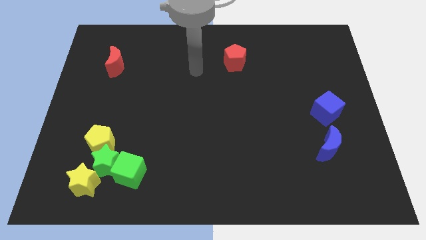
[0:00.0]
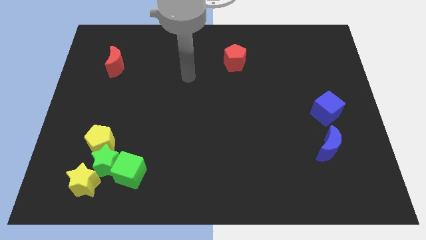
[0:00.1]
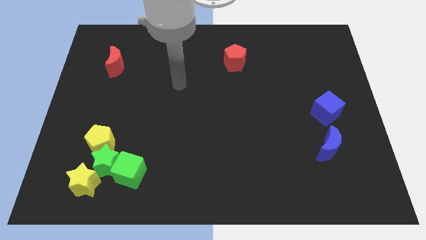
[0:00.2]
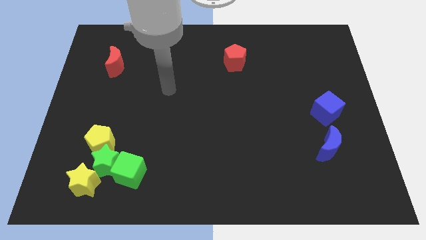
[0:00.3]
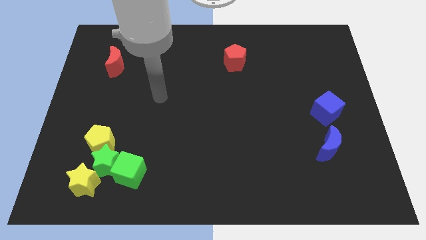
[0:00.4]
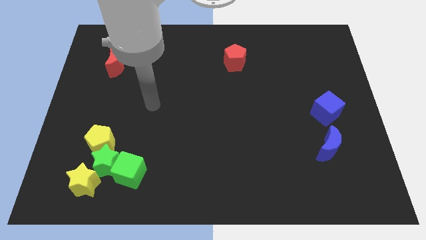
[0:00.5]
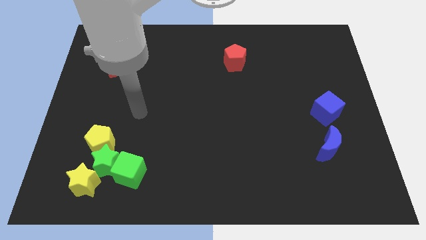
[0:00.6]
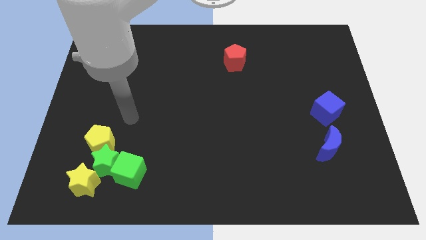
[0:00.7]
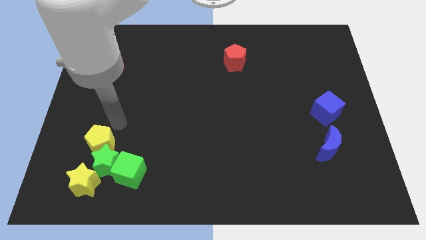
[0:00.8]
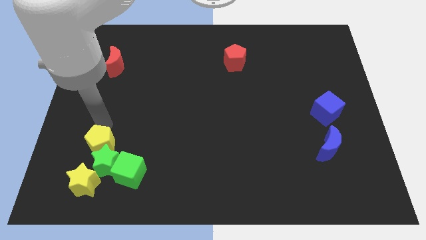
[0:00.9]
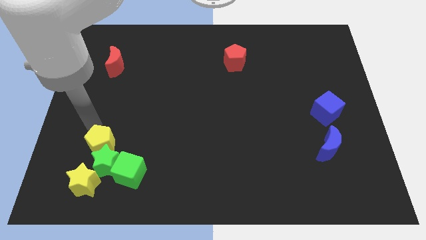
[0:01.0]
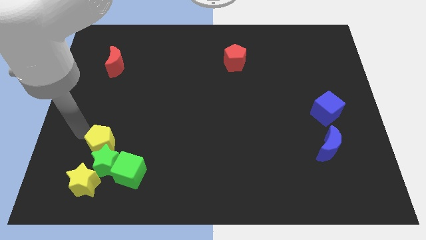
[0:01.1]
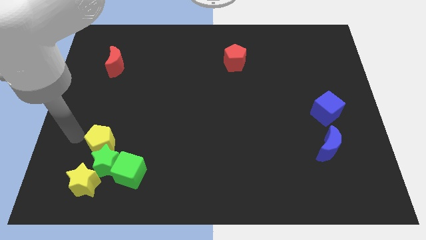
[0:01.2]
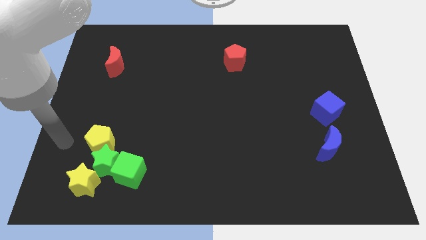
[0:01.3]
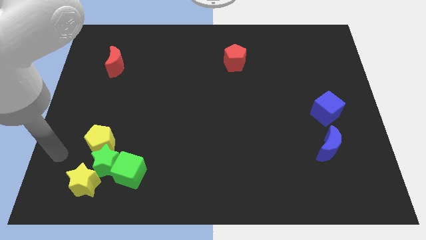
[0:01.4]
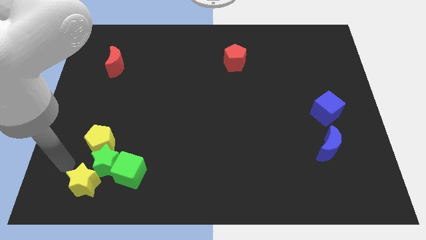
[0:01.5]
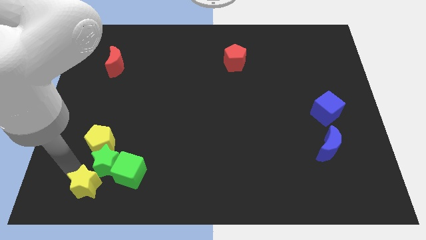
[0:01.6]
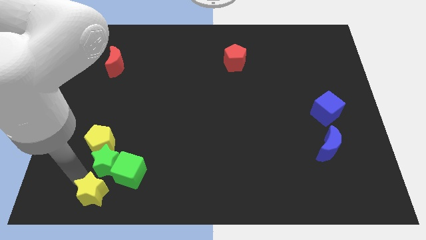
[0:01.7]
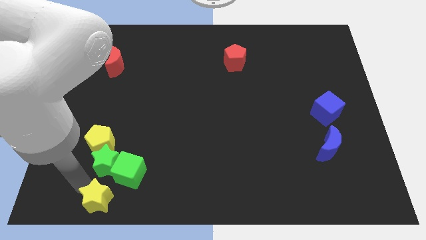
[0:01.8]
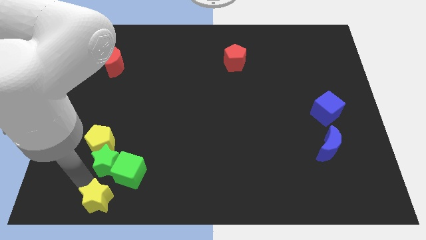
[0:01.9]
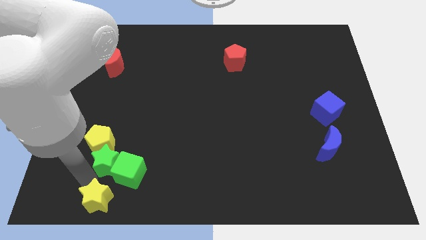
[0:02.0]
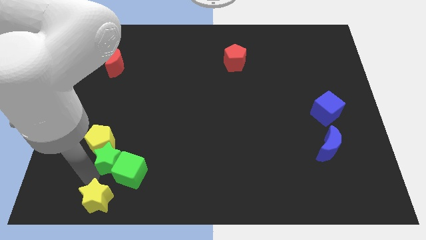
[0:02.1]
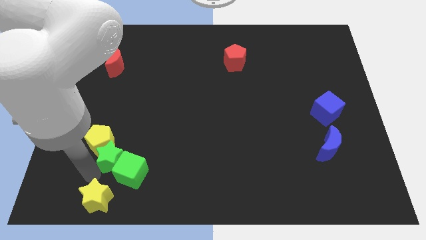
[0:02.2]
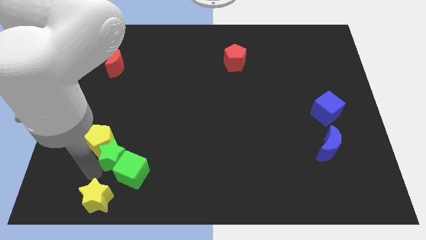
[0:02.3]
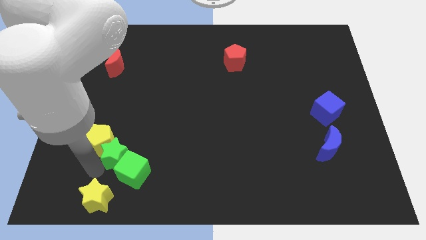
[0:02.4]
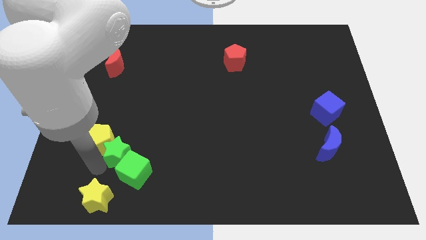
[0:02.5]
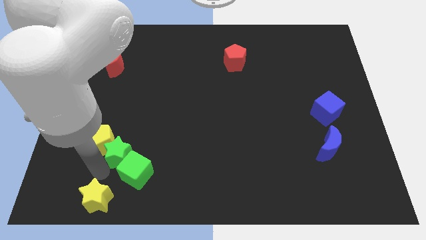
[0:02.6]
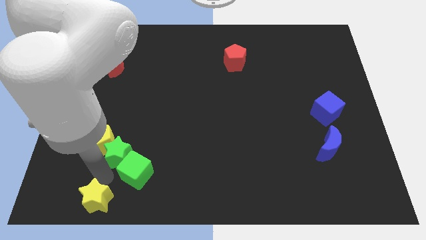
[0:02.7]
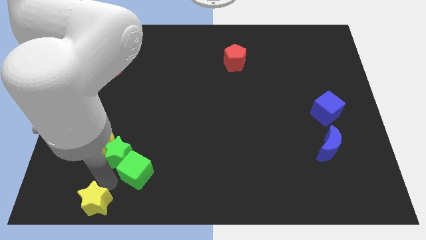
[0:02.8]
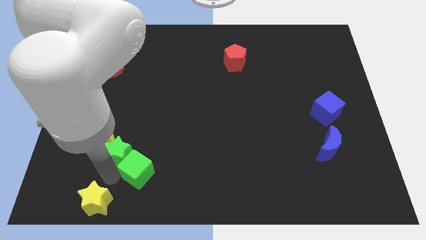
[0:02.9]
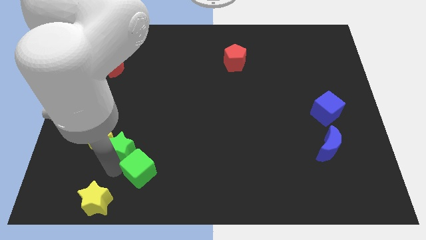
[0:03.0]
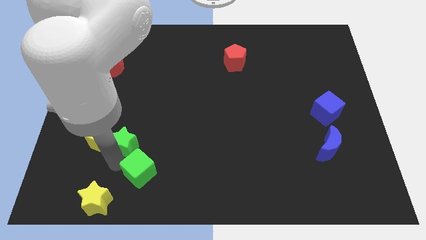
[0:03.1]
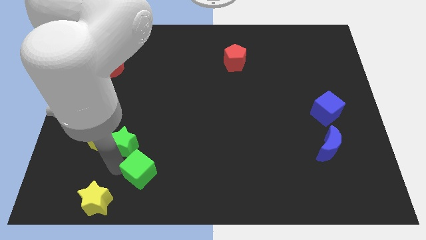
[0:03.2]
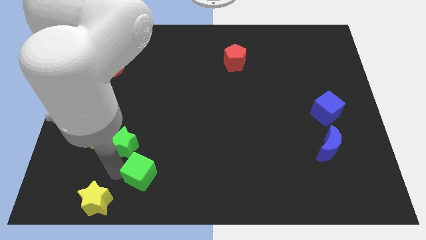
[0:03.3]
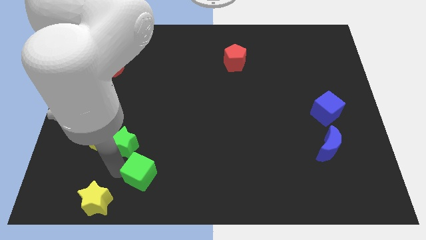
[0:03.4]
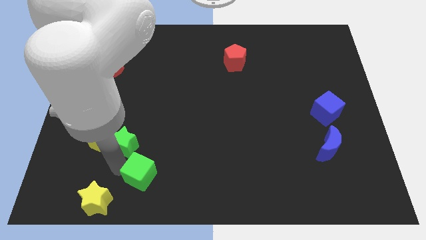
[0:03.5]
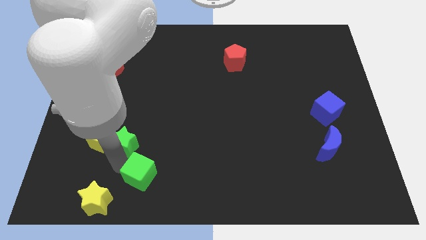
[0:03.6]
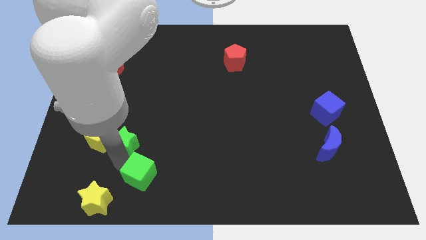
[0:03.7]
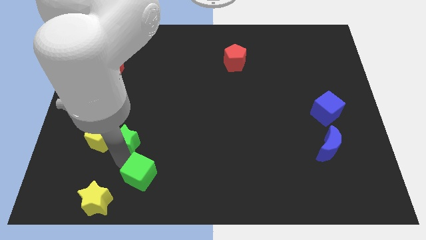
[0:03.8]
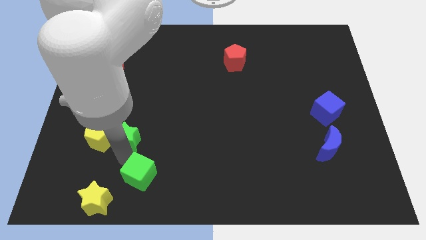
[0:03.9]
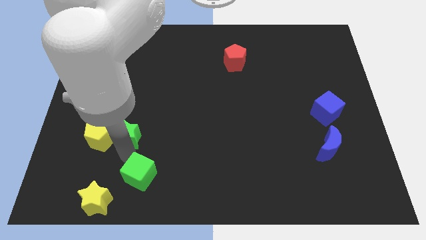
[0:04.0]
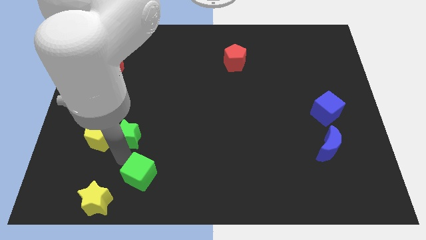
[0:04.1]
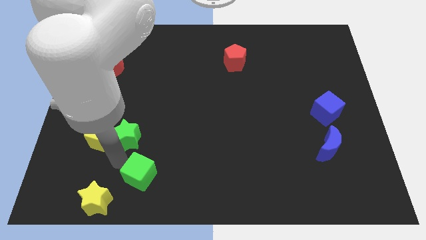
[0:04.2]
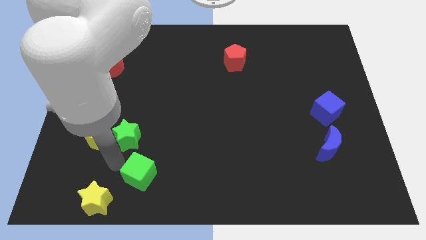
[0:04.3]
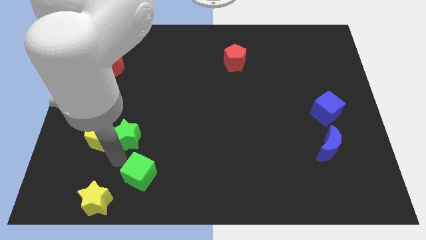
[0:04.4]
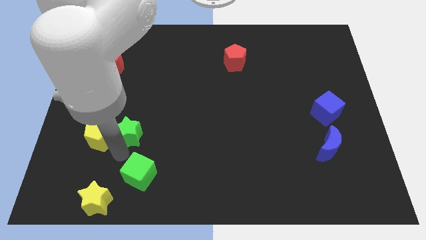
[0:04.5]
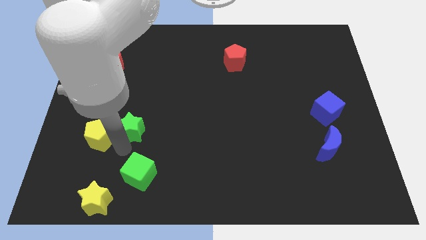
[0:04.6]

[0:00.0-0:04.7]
separate the green star from the yellow pentagon, green cube, and yellow star

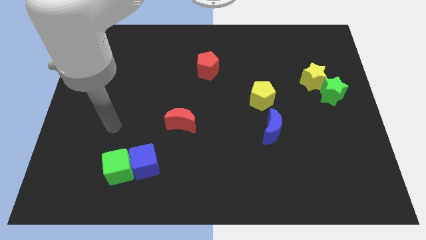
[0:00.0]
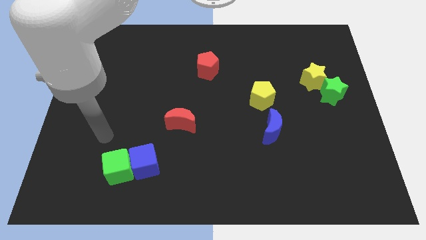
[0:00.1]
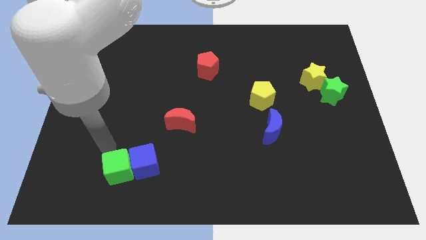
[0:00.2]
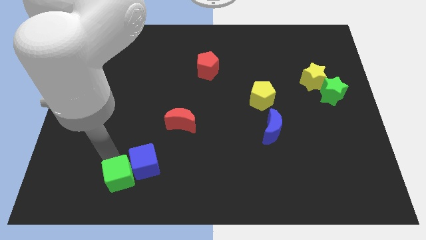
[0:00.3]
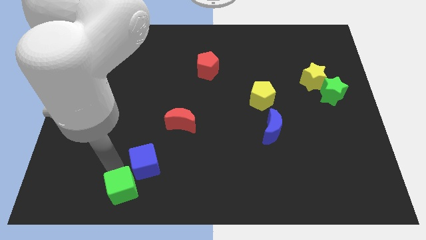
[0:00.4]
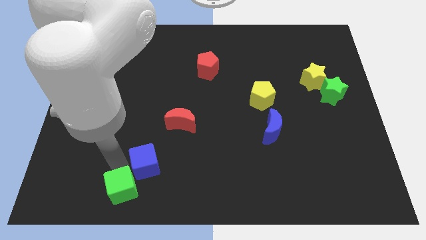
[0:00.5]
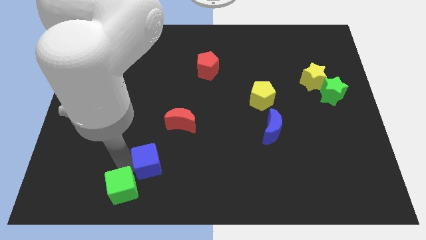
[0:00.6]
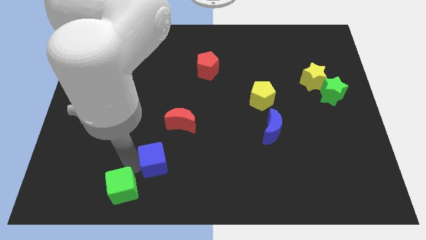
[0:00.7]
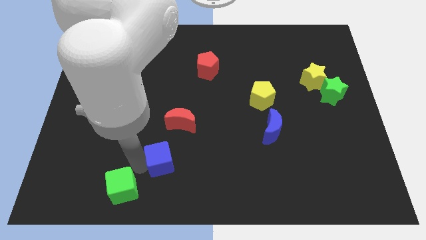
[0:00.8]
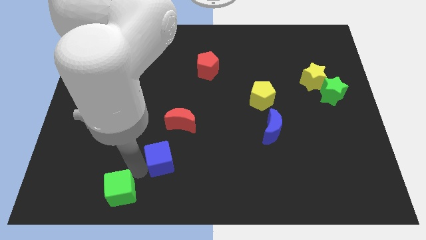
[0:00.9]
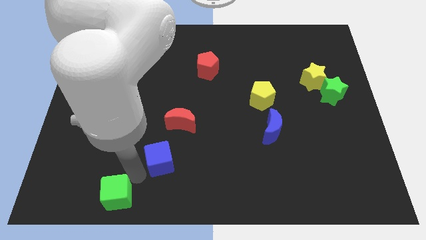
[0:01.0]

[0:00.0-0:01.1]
move the blue cube away from the green cube

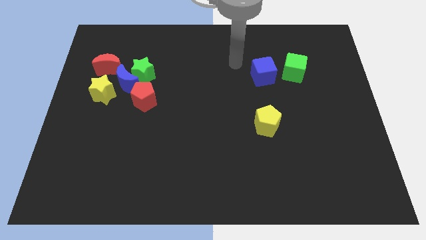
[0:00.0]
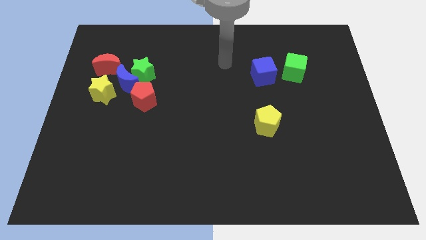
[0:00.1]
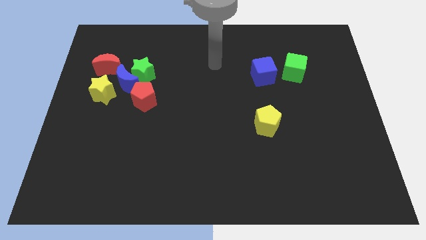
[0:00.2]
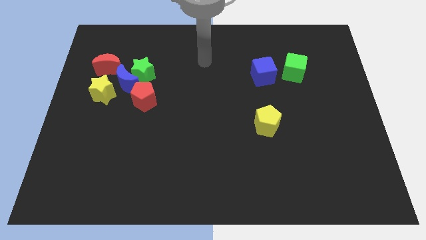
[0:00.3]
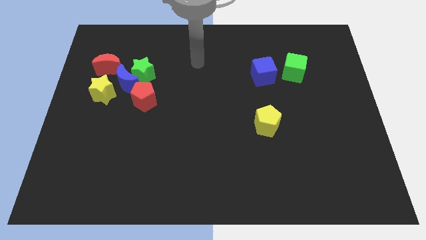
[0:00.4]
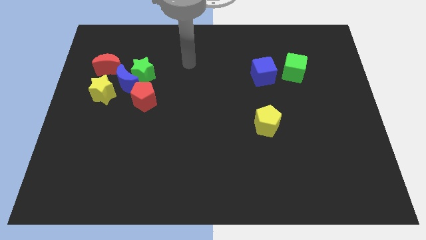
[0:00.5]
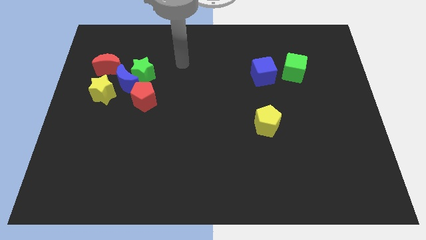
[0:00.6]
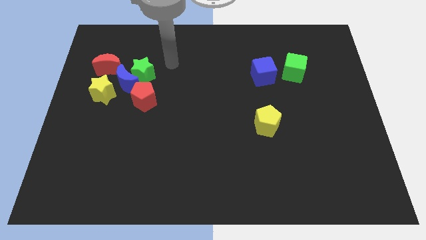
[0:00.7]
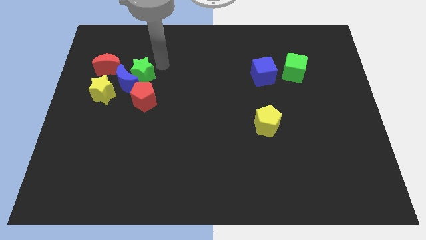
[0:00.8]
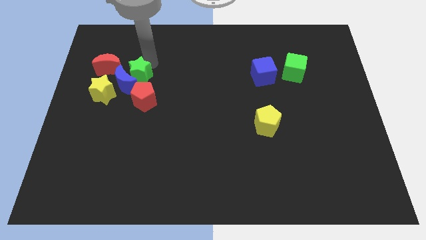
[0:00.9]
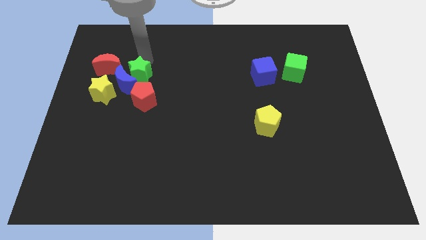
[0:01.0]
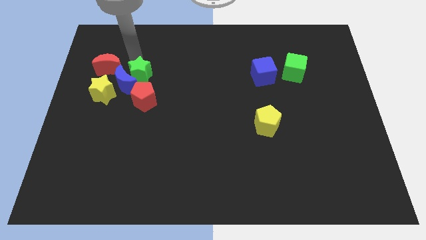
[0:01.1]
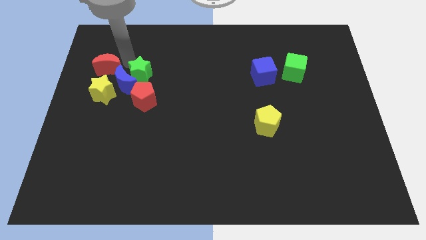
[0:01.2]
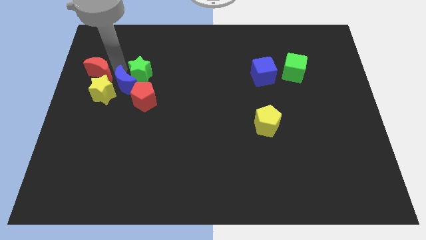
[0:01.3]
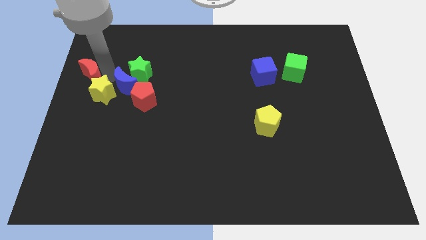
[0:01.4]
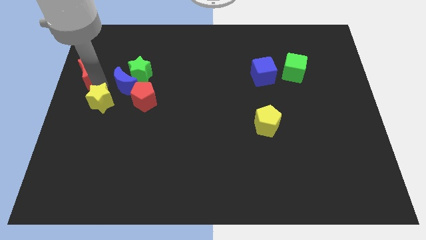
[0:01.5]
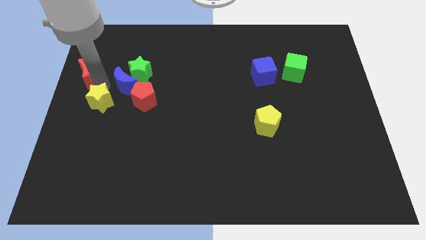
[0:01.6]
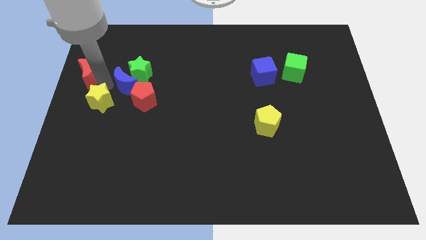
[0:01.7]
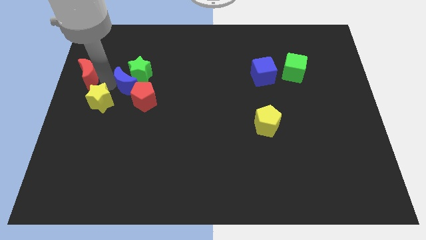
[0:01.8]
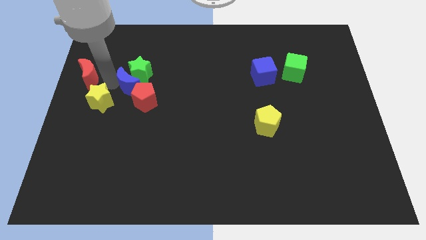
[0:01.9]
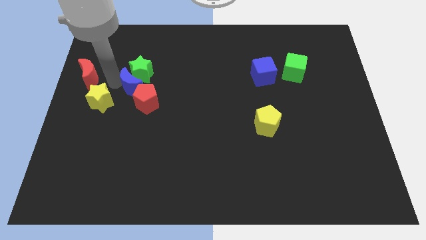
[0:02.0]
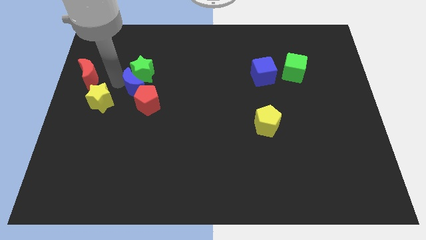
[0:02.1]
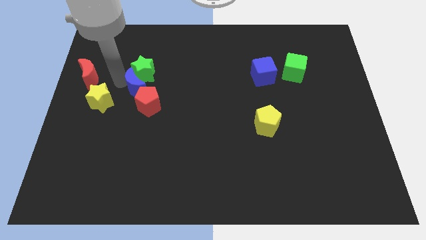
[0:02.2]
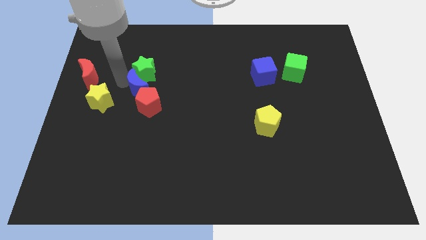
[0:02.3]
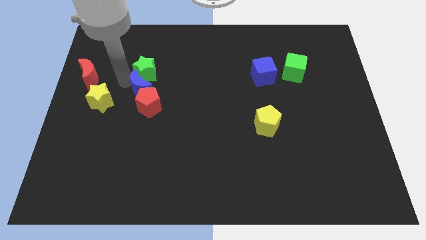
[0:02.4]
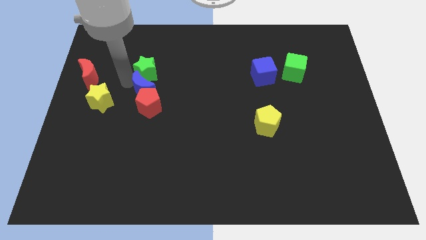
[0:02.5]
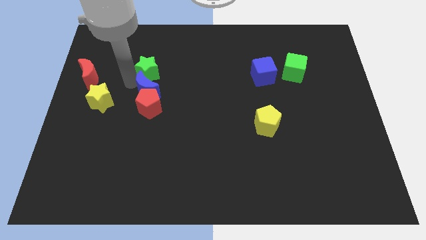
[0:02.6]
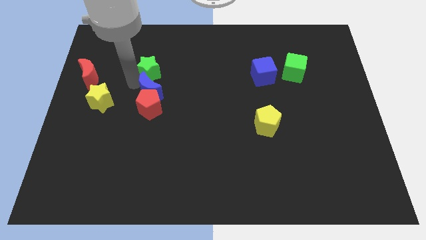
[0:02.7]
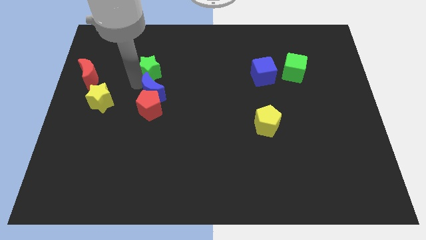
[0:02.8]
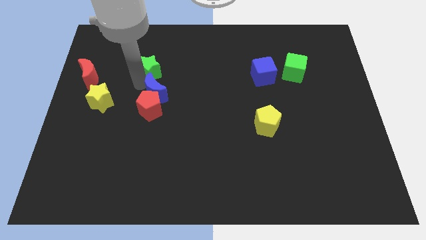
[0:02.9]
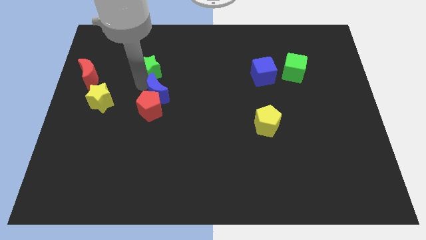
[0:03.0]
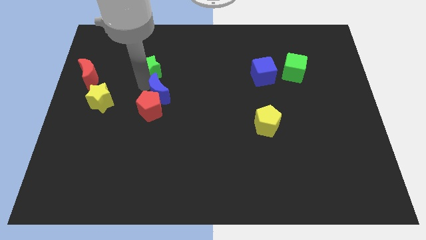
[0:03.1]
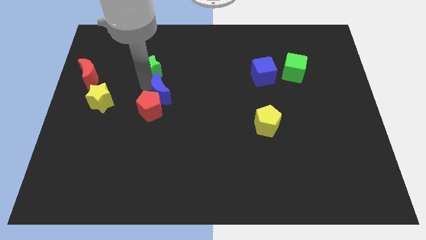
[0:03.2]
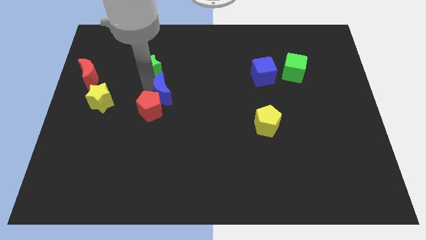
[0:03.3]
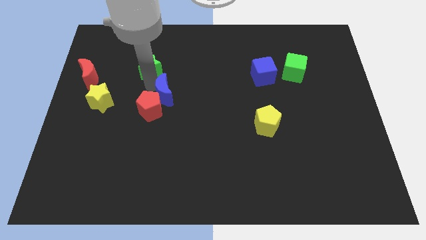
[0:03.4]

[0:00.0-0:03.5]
pull the blue moon apart from the clump

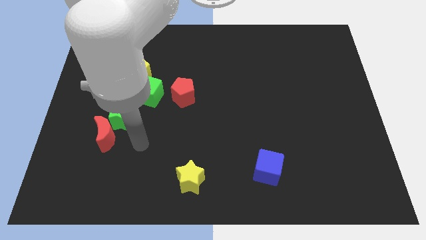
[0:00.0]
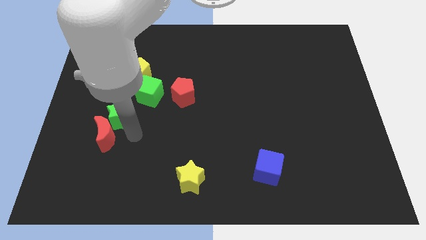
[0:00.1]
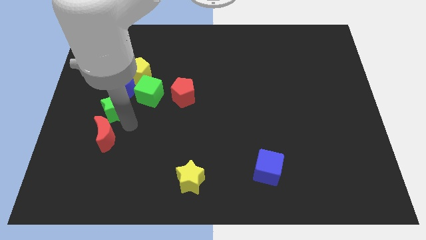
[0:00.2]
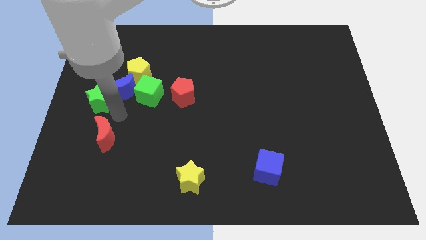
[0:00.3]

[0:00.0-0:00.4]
pull the red moon apart from the green star
